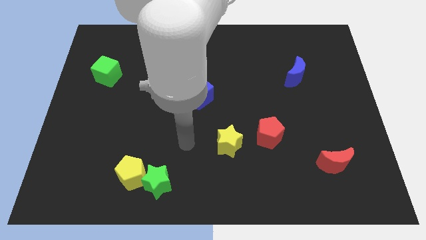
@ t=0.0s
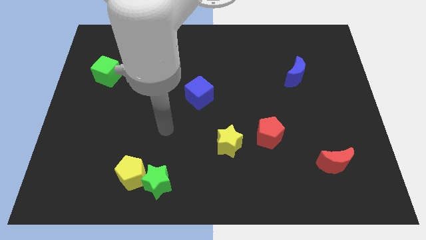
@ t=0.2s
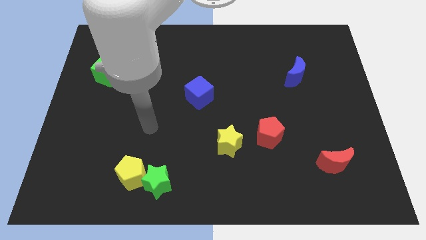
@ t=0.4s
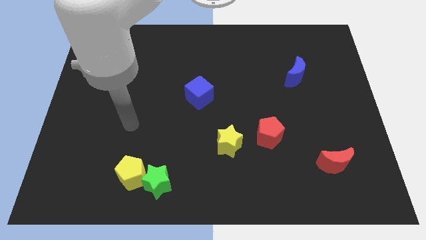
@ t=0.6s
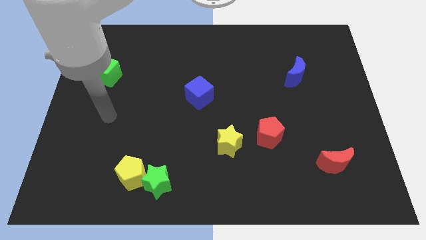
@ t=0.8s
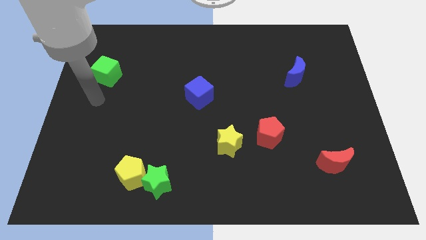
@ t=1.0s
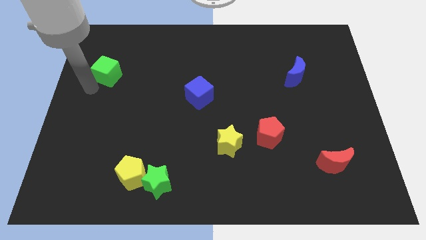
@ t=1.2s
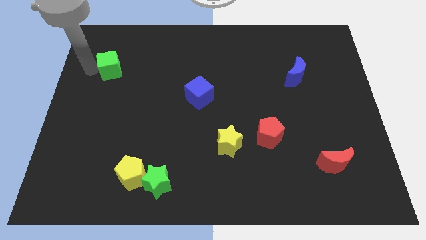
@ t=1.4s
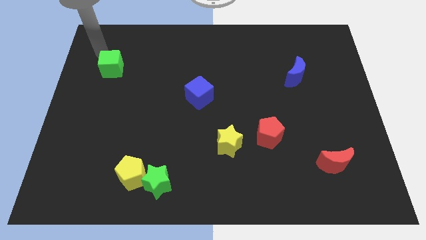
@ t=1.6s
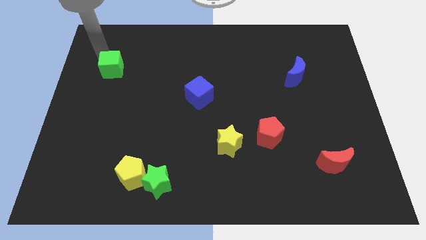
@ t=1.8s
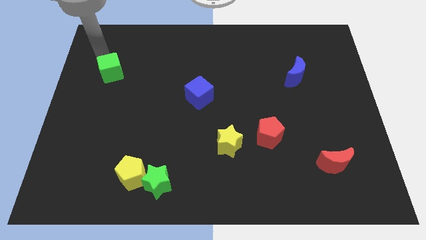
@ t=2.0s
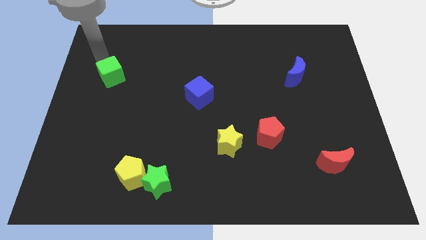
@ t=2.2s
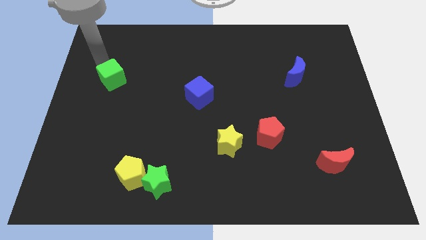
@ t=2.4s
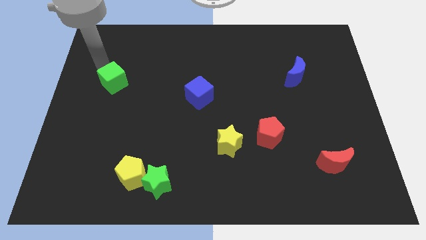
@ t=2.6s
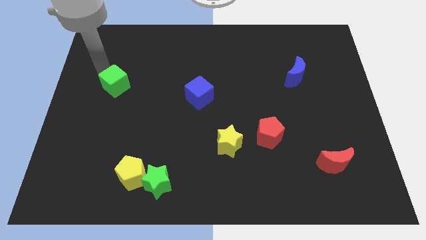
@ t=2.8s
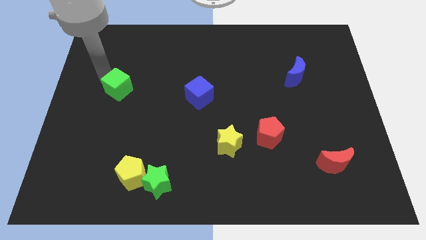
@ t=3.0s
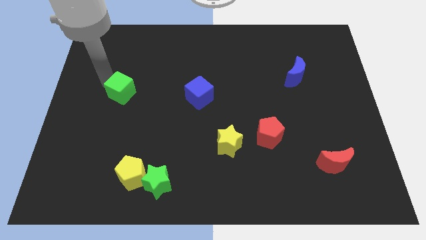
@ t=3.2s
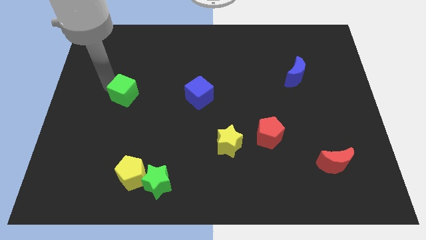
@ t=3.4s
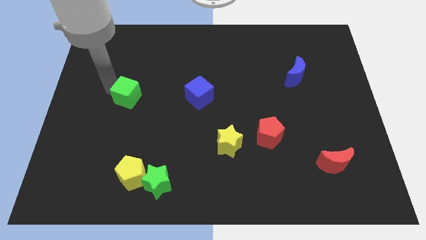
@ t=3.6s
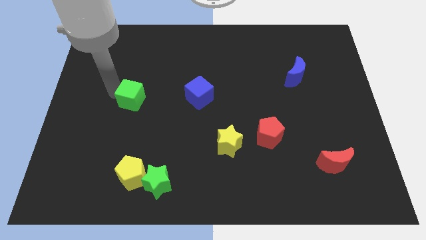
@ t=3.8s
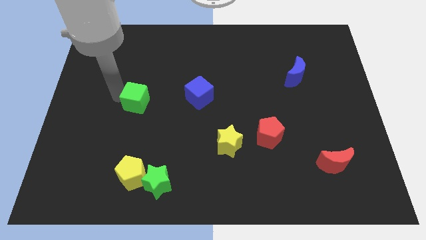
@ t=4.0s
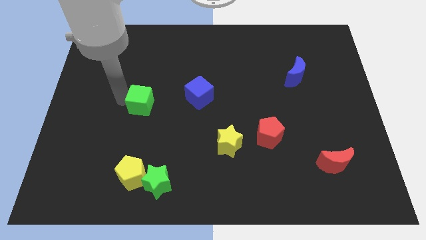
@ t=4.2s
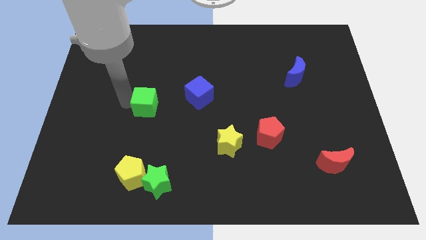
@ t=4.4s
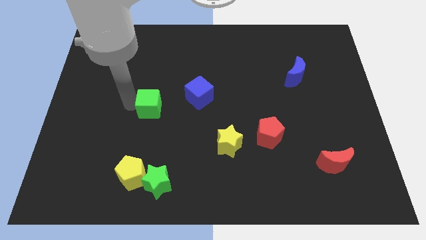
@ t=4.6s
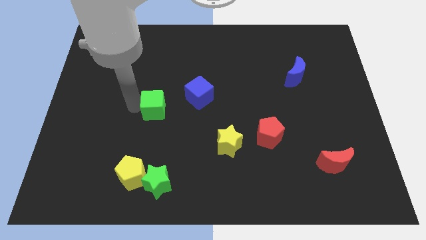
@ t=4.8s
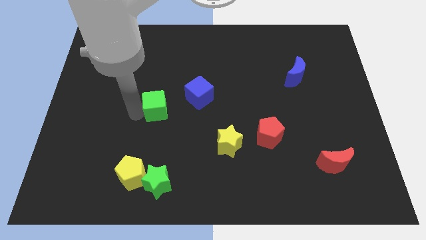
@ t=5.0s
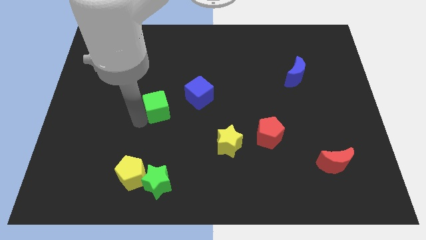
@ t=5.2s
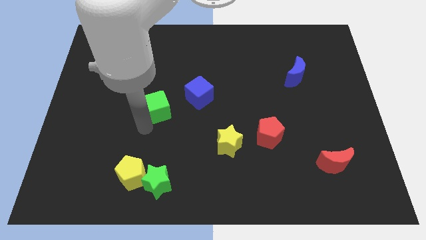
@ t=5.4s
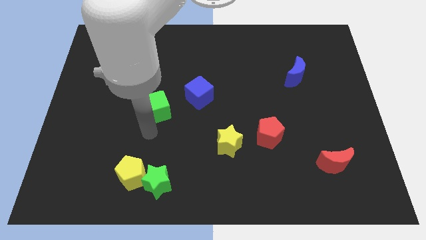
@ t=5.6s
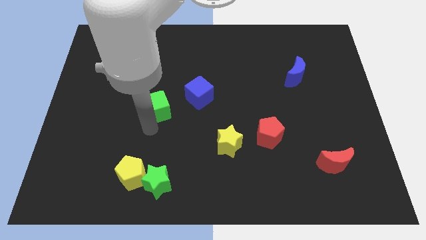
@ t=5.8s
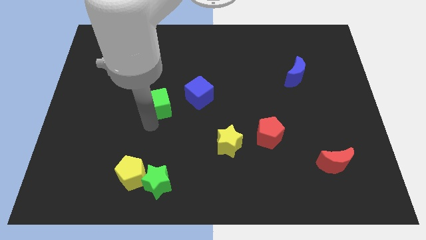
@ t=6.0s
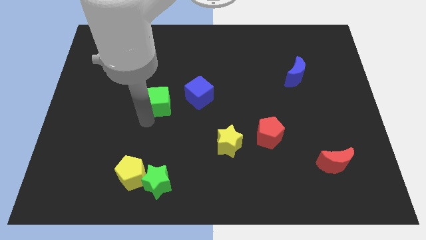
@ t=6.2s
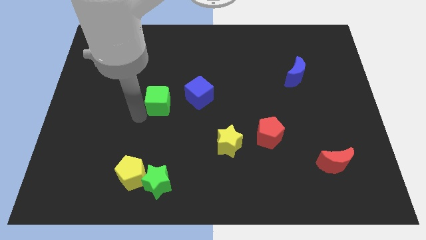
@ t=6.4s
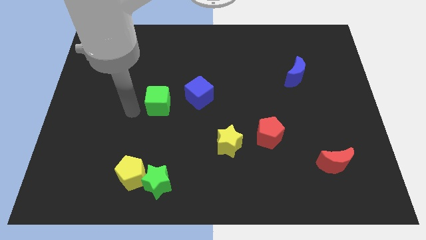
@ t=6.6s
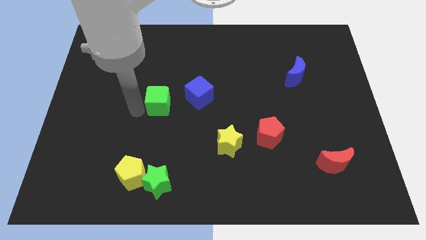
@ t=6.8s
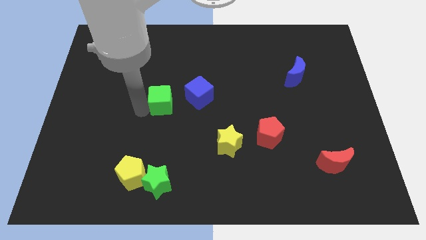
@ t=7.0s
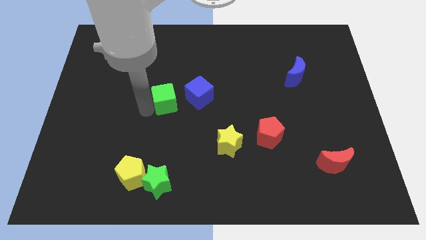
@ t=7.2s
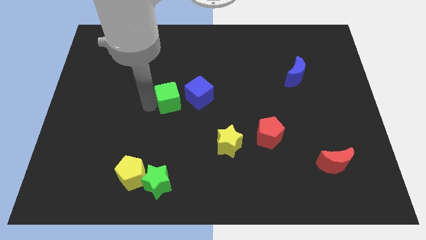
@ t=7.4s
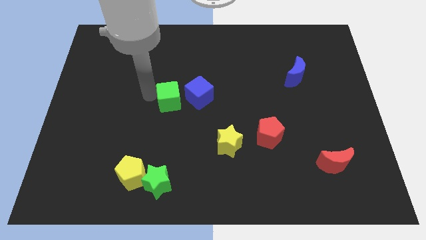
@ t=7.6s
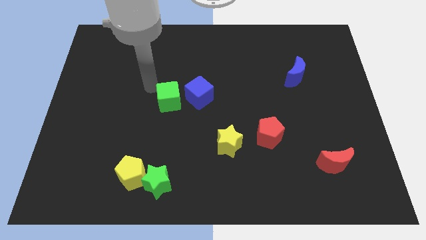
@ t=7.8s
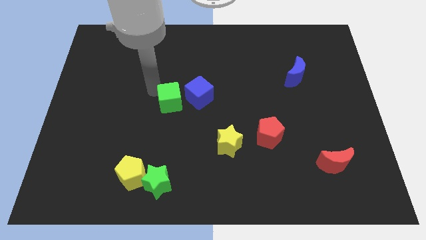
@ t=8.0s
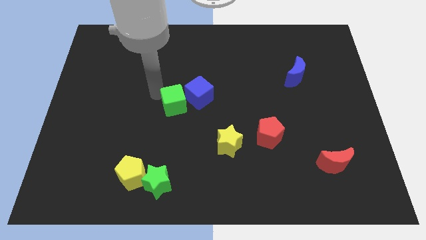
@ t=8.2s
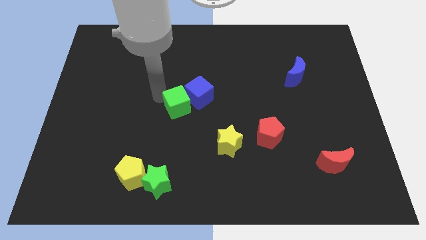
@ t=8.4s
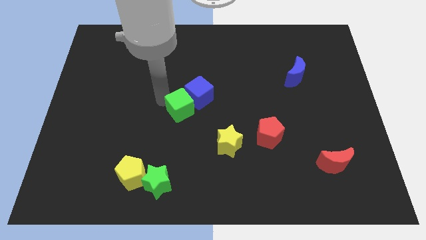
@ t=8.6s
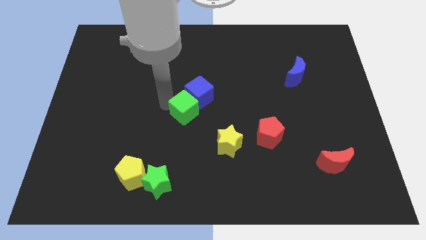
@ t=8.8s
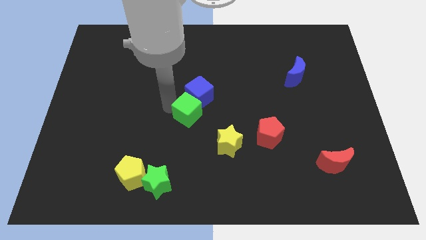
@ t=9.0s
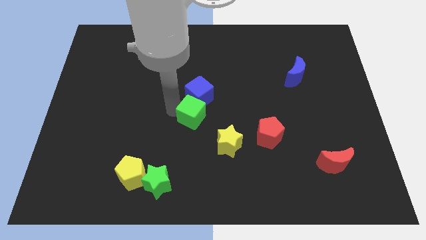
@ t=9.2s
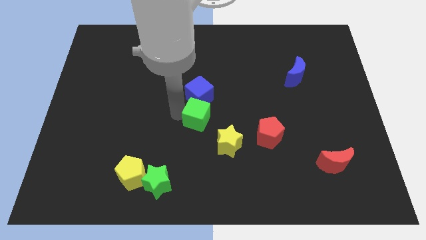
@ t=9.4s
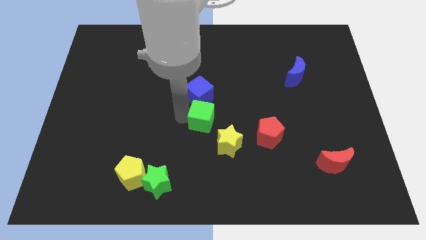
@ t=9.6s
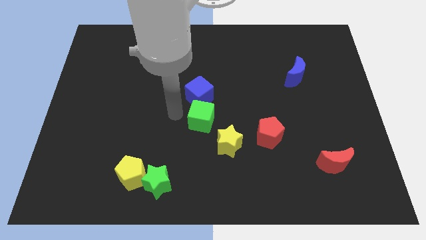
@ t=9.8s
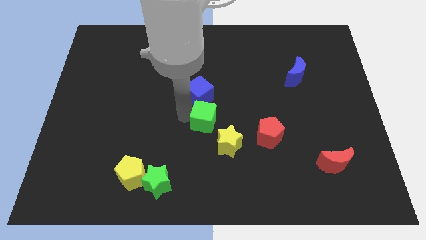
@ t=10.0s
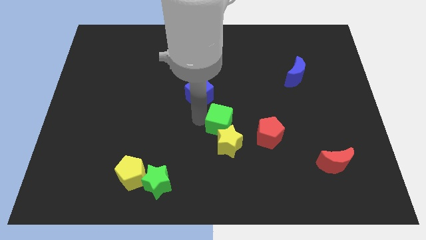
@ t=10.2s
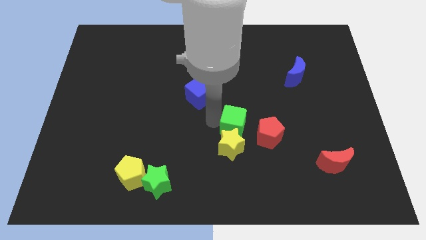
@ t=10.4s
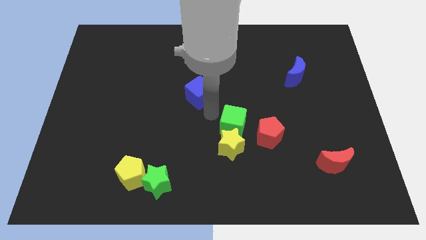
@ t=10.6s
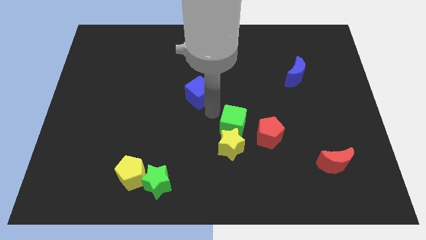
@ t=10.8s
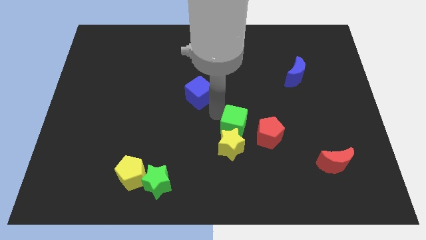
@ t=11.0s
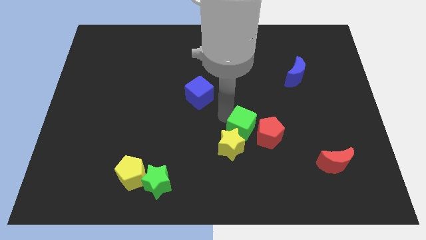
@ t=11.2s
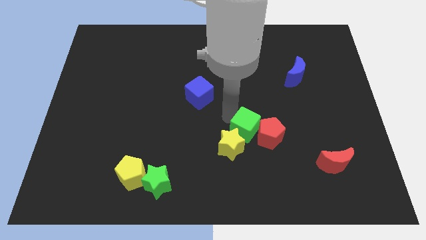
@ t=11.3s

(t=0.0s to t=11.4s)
push the green cube to the right side of the yellow star

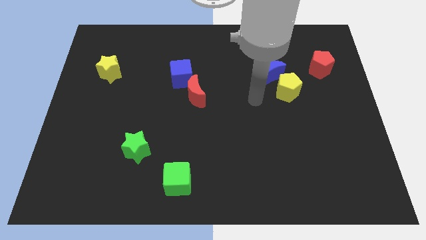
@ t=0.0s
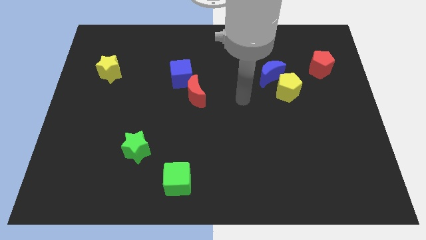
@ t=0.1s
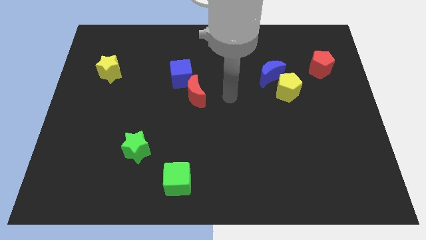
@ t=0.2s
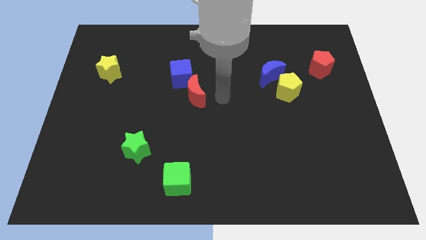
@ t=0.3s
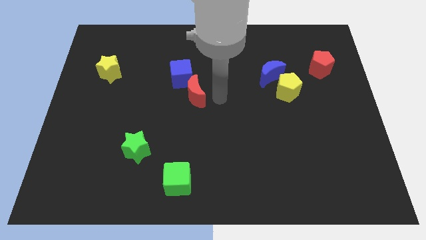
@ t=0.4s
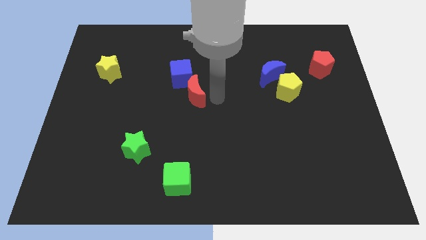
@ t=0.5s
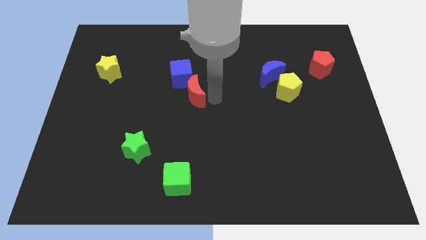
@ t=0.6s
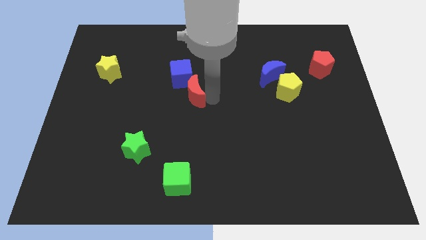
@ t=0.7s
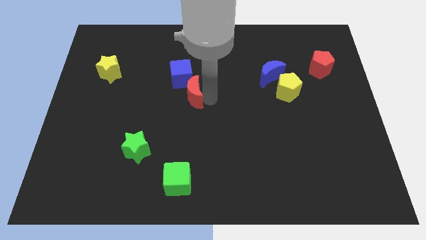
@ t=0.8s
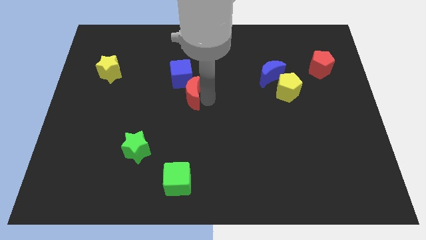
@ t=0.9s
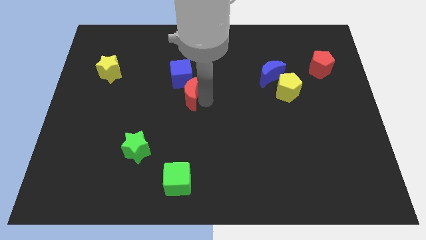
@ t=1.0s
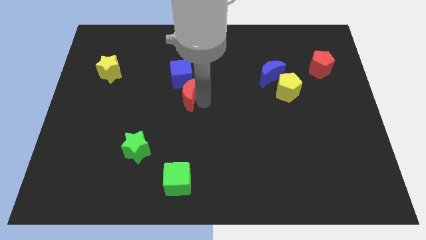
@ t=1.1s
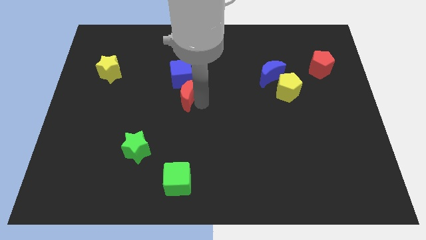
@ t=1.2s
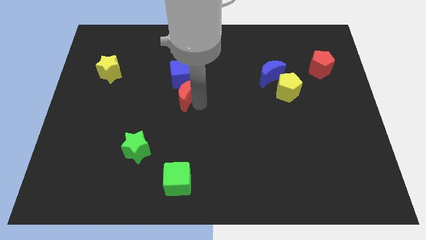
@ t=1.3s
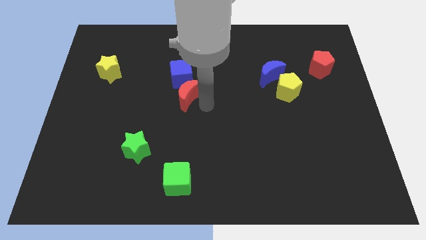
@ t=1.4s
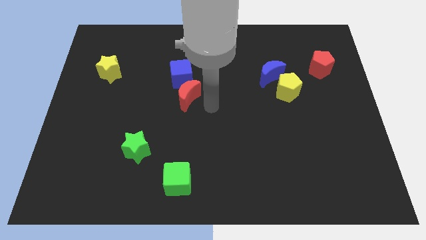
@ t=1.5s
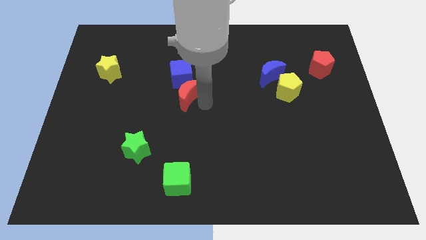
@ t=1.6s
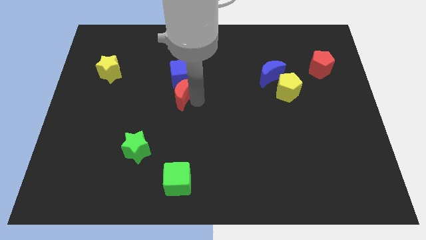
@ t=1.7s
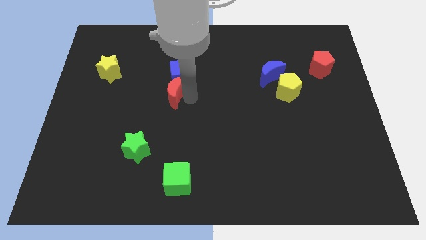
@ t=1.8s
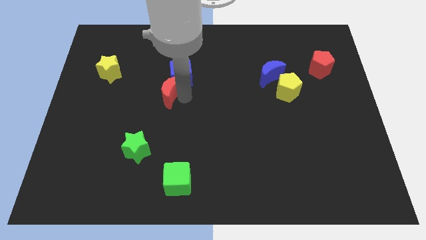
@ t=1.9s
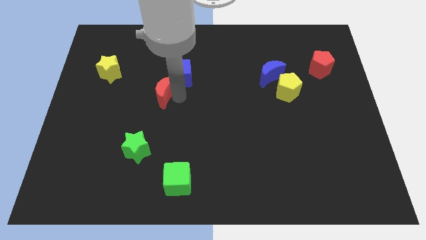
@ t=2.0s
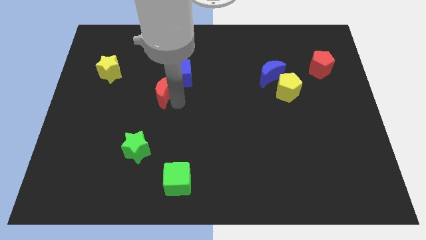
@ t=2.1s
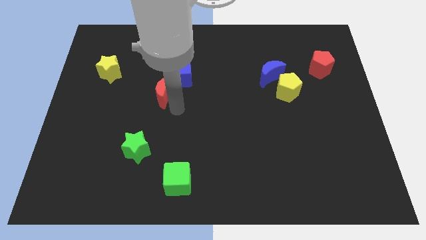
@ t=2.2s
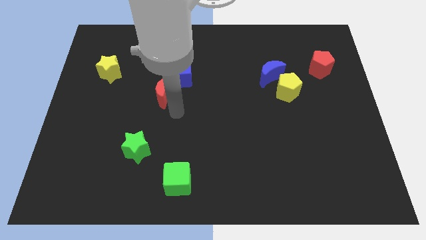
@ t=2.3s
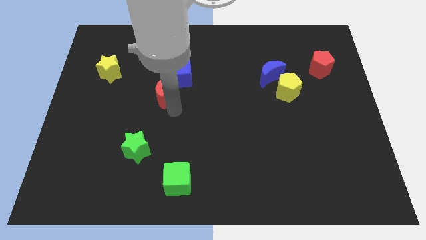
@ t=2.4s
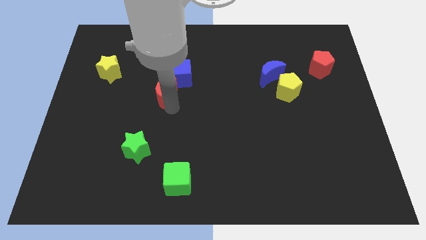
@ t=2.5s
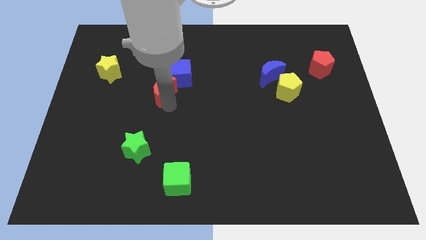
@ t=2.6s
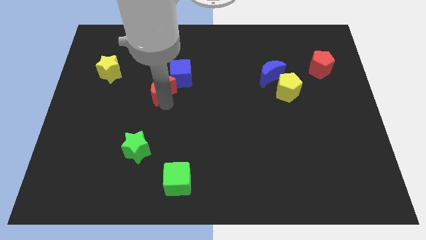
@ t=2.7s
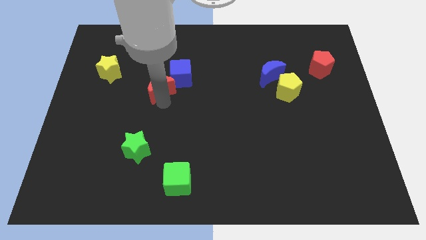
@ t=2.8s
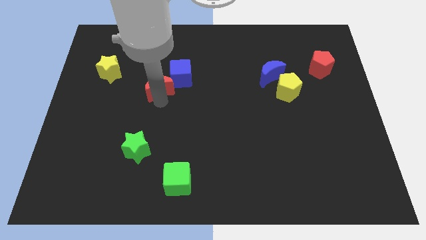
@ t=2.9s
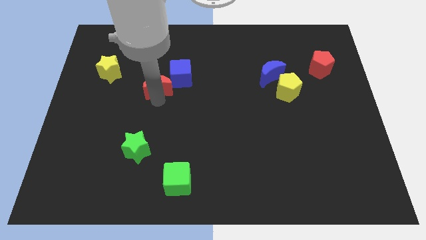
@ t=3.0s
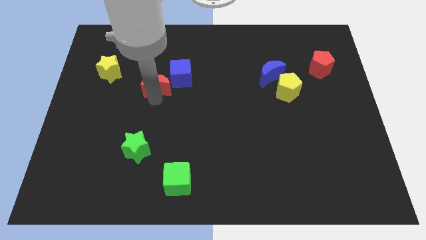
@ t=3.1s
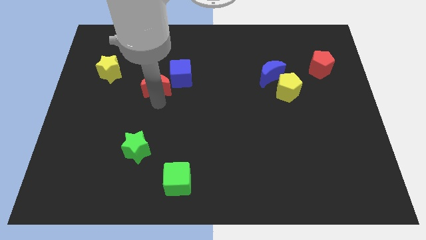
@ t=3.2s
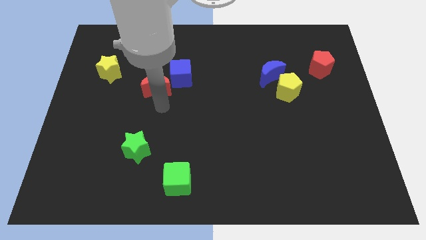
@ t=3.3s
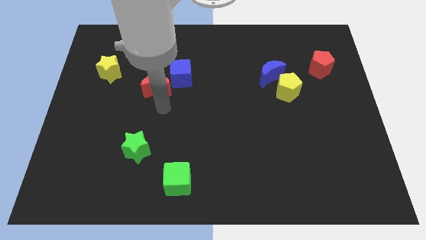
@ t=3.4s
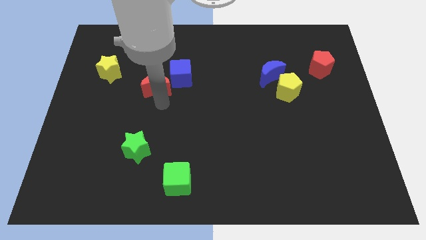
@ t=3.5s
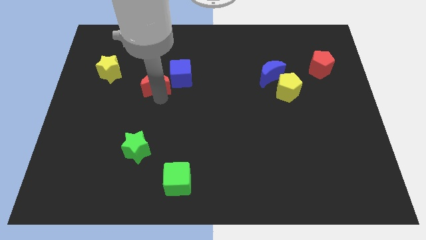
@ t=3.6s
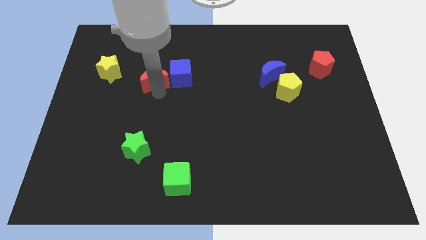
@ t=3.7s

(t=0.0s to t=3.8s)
slide the red moon just right of the yellow star
